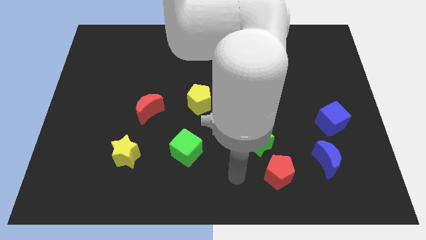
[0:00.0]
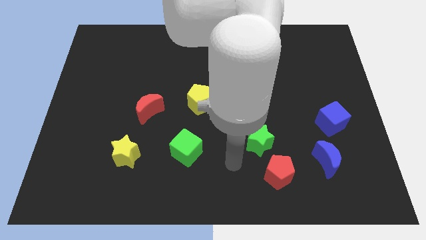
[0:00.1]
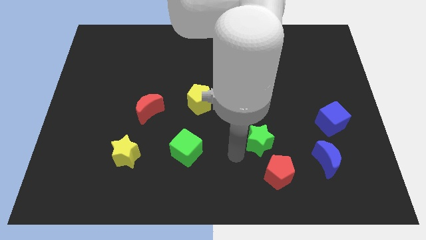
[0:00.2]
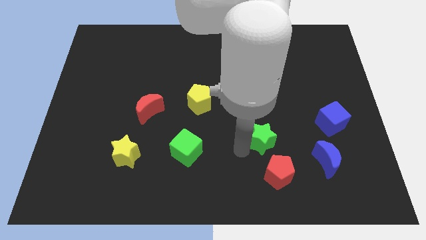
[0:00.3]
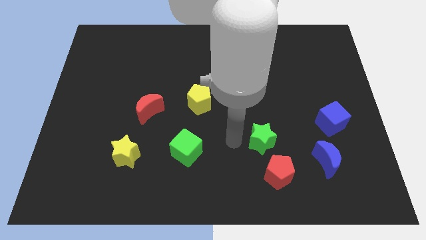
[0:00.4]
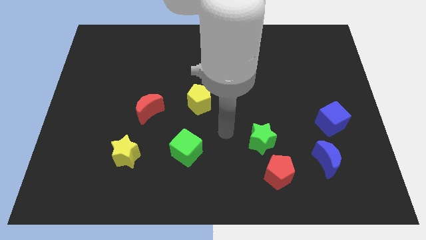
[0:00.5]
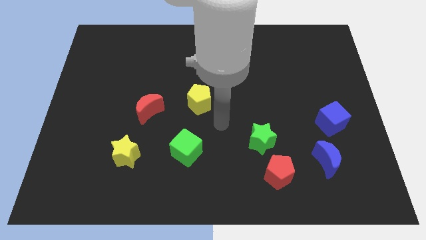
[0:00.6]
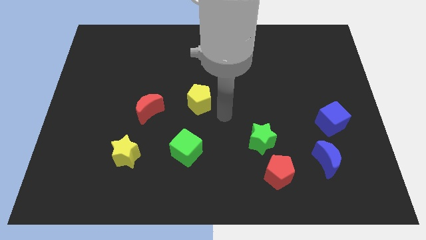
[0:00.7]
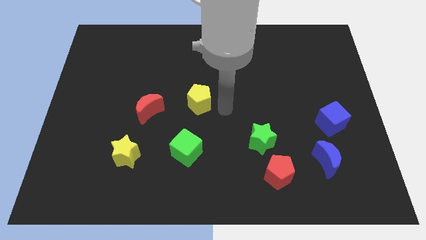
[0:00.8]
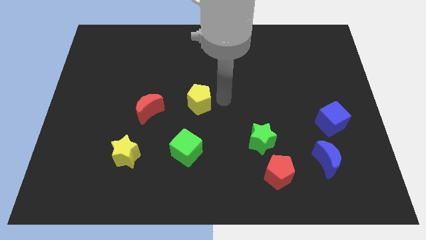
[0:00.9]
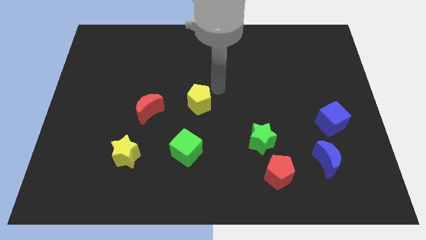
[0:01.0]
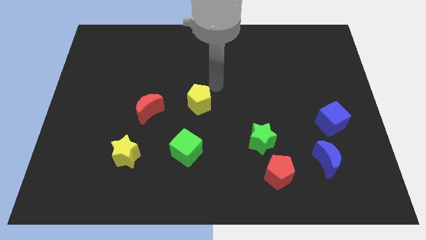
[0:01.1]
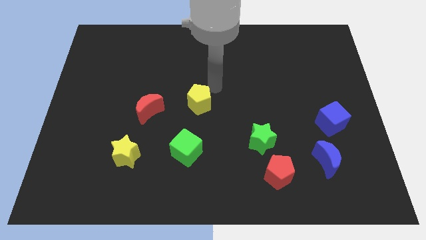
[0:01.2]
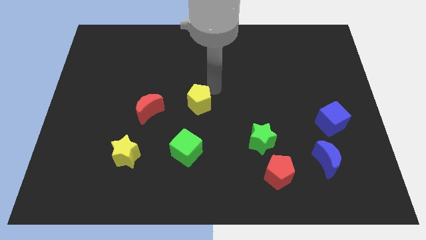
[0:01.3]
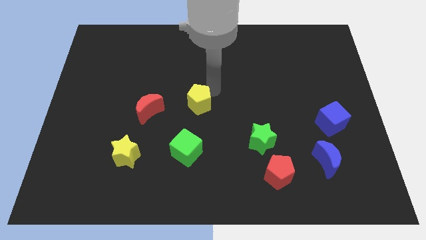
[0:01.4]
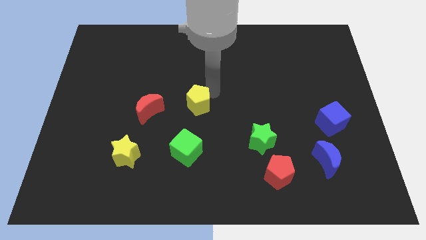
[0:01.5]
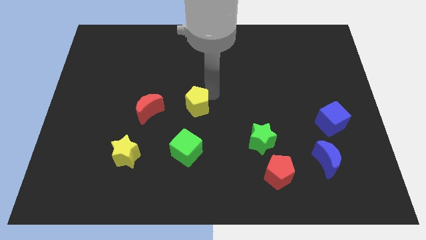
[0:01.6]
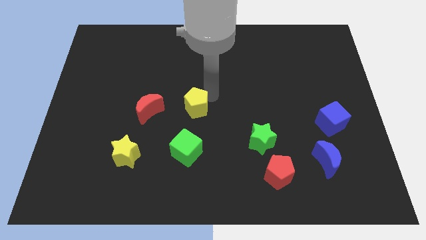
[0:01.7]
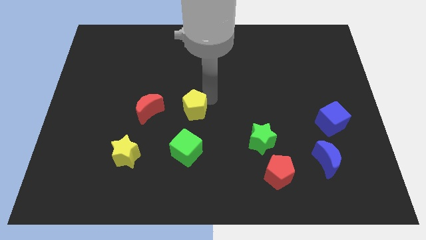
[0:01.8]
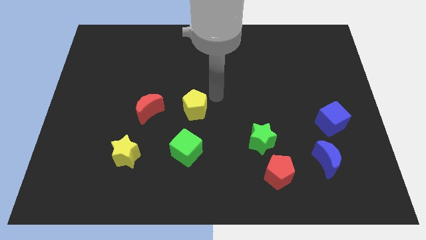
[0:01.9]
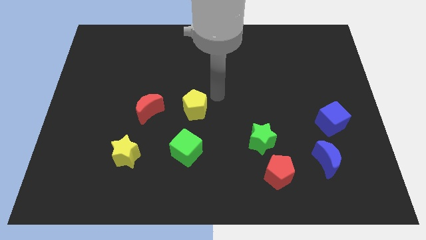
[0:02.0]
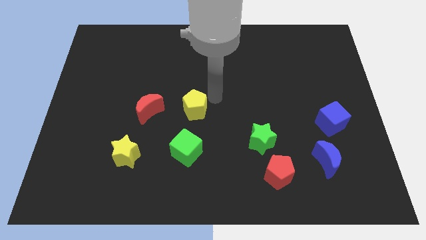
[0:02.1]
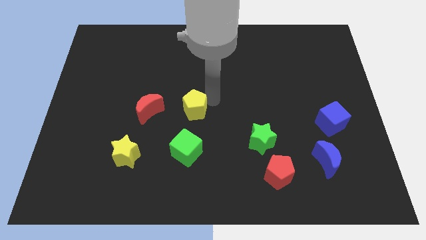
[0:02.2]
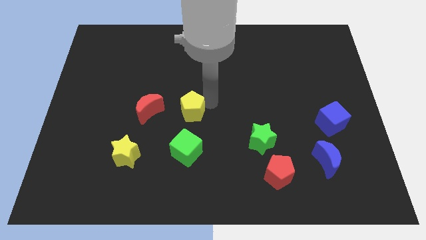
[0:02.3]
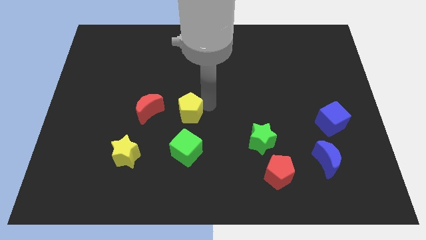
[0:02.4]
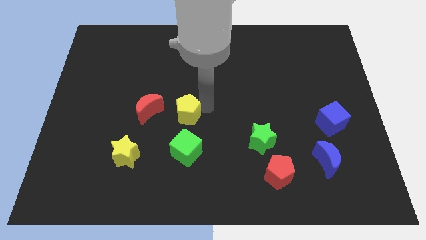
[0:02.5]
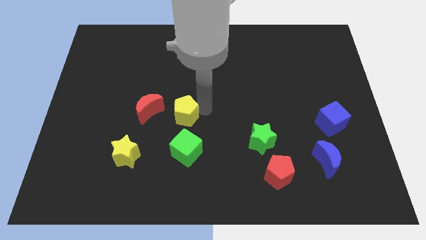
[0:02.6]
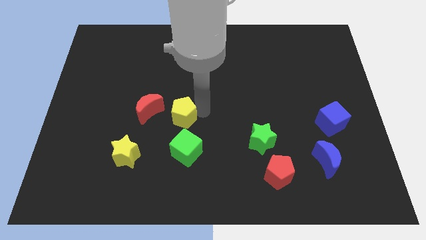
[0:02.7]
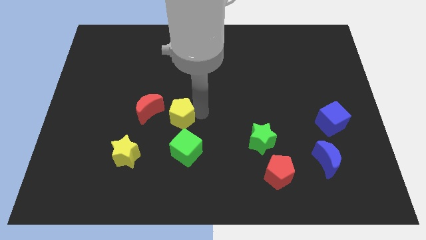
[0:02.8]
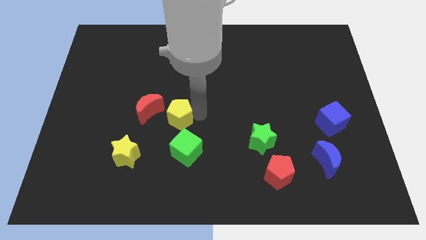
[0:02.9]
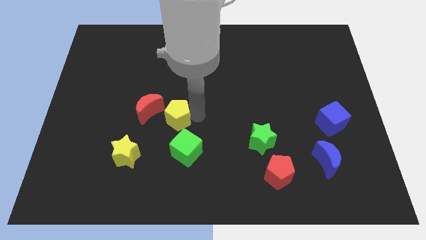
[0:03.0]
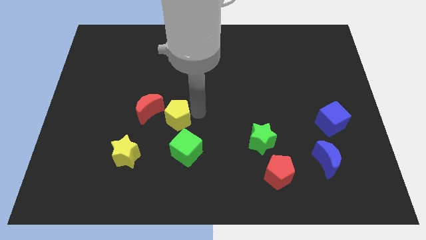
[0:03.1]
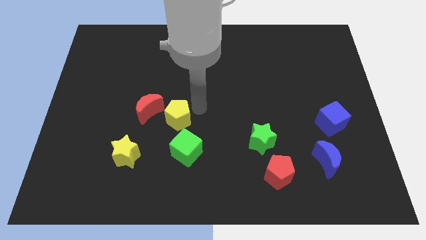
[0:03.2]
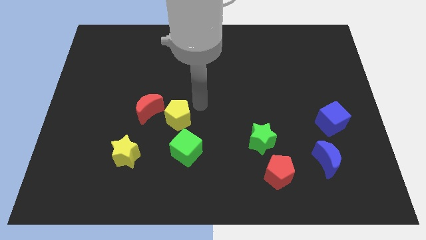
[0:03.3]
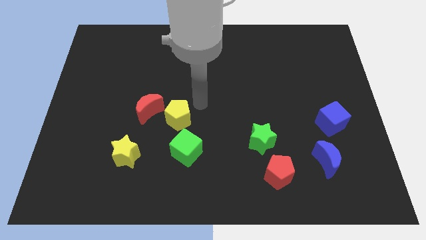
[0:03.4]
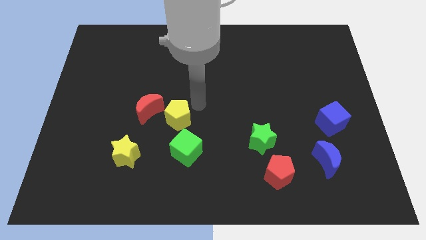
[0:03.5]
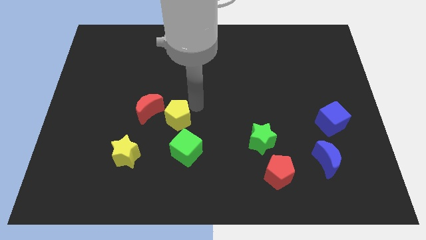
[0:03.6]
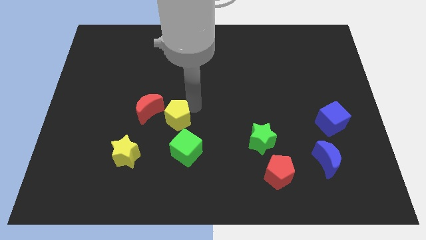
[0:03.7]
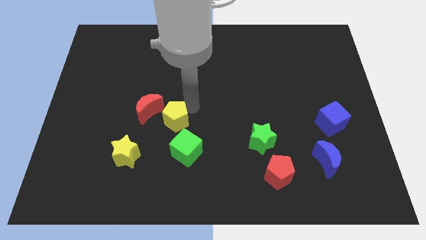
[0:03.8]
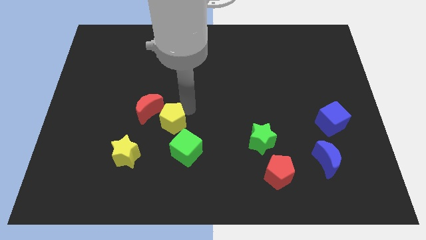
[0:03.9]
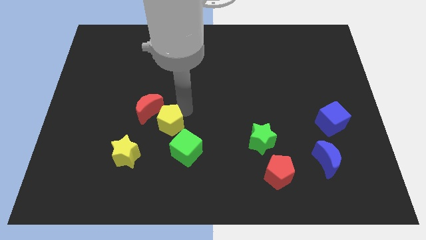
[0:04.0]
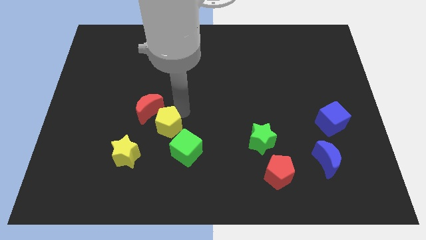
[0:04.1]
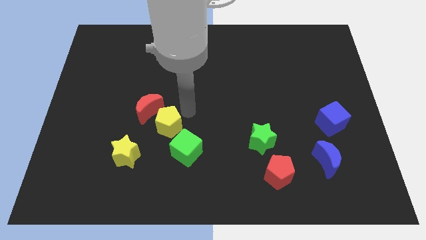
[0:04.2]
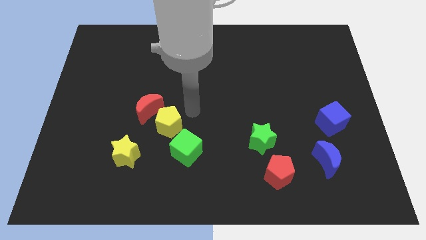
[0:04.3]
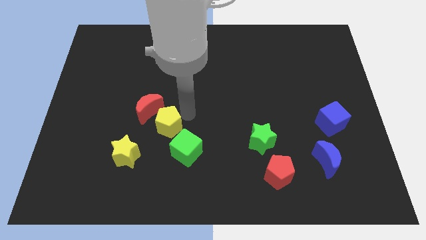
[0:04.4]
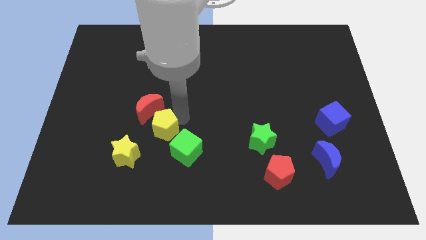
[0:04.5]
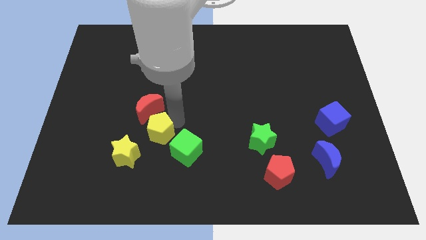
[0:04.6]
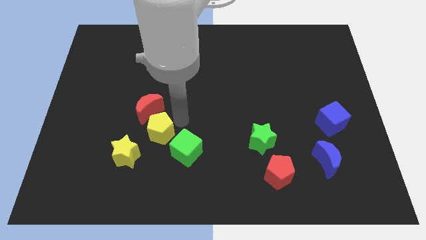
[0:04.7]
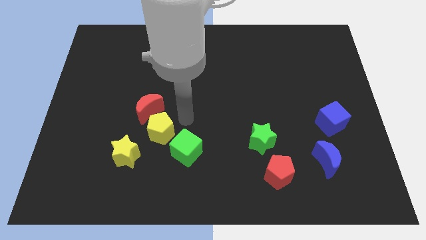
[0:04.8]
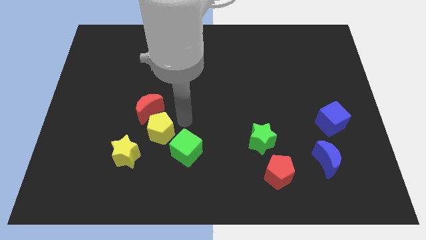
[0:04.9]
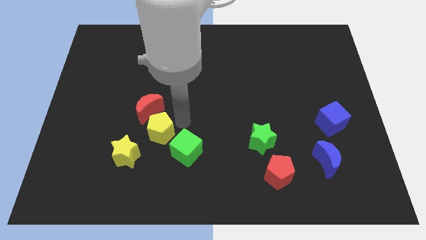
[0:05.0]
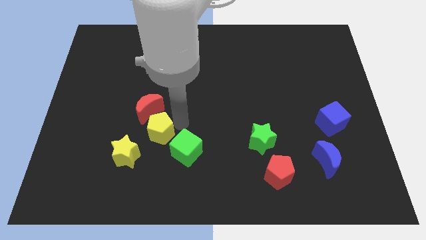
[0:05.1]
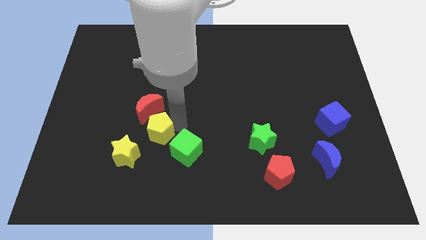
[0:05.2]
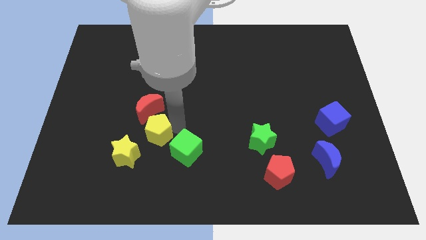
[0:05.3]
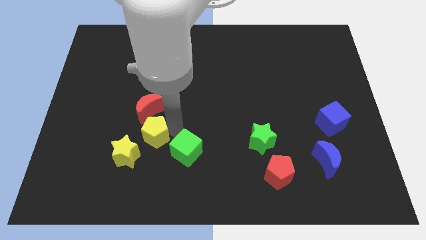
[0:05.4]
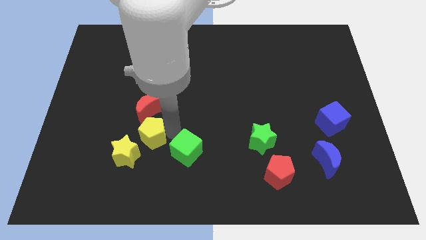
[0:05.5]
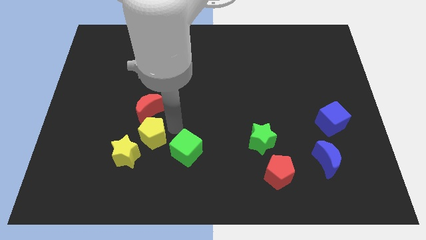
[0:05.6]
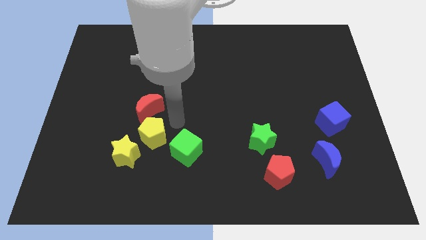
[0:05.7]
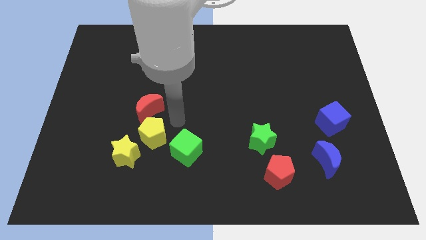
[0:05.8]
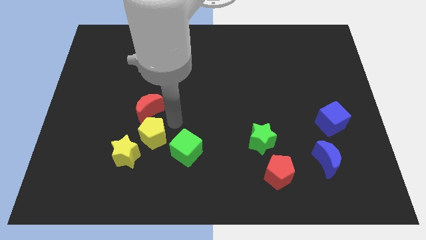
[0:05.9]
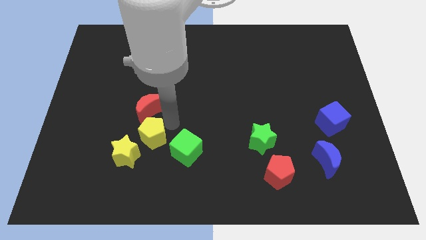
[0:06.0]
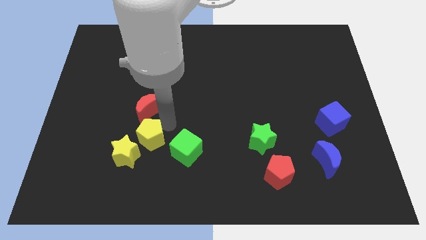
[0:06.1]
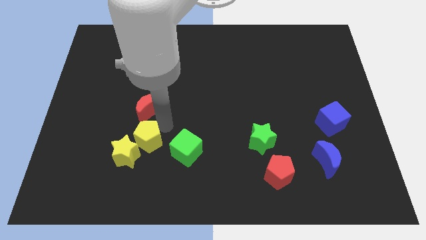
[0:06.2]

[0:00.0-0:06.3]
move the yellow pentagon towards the yellow star
